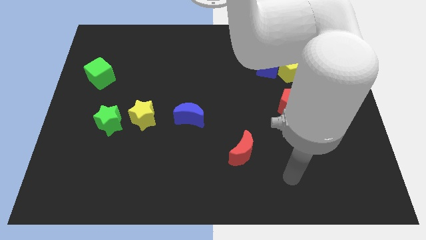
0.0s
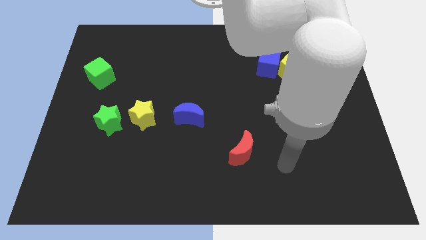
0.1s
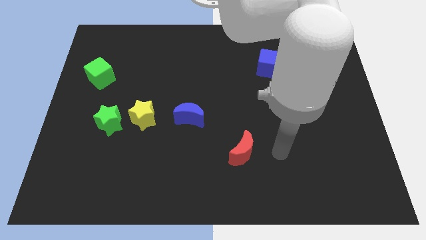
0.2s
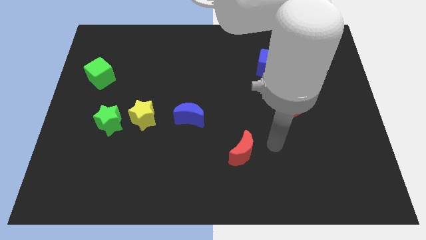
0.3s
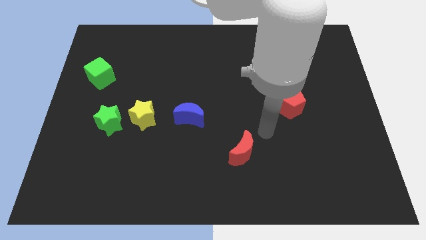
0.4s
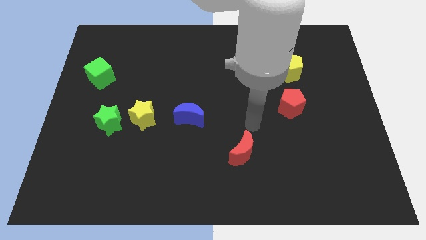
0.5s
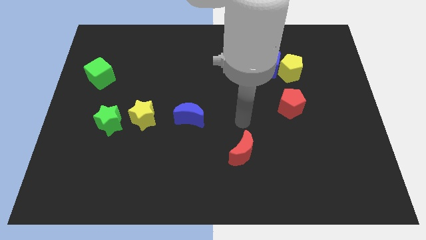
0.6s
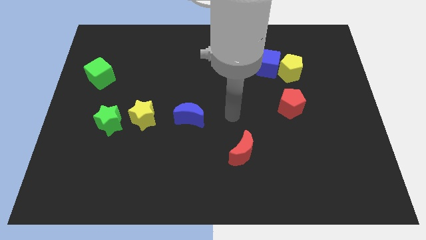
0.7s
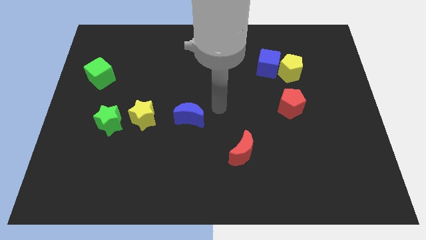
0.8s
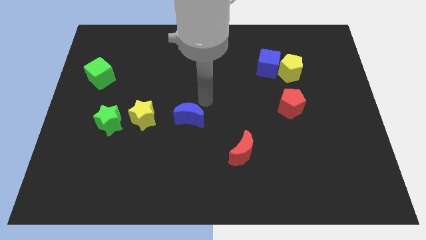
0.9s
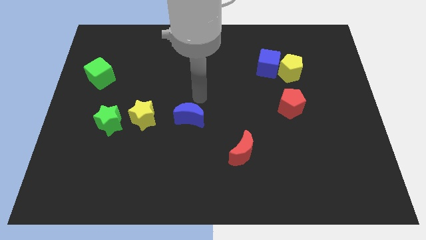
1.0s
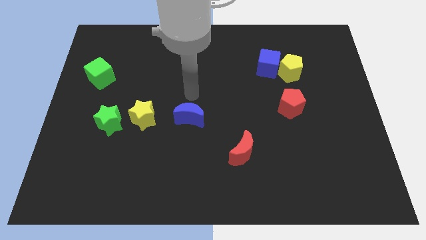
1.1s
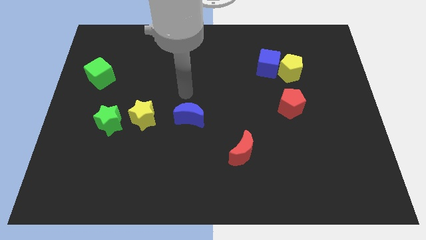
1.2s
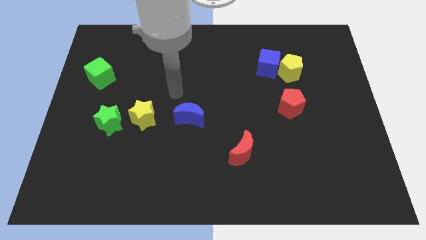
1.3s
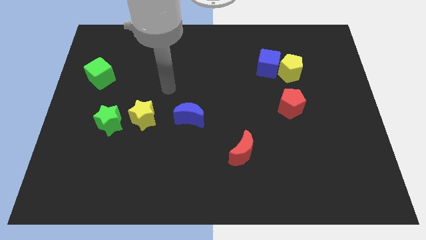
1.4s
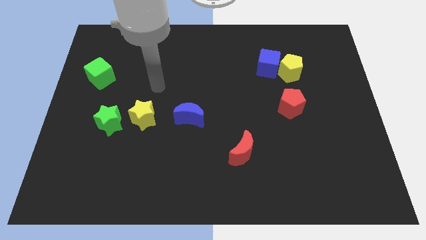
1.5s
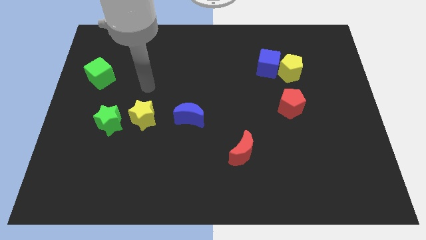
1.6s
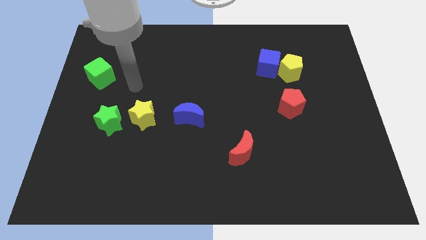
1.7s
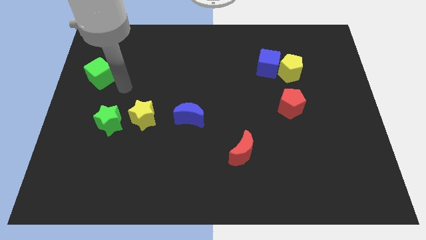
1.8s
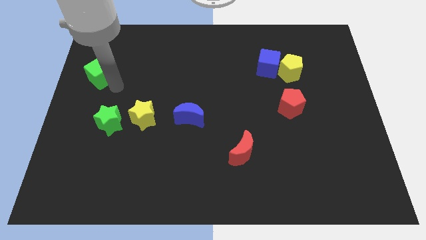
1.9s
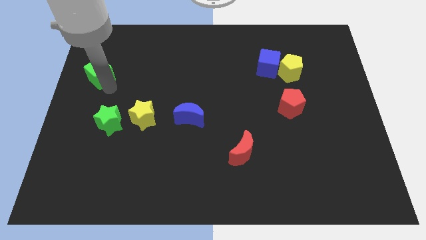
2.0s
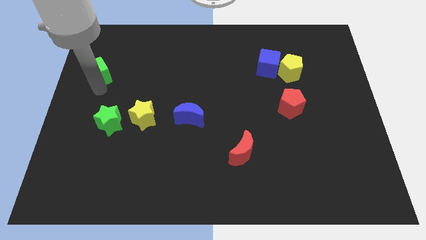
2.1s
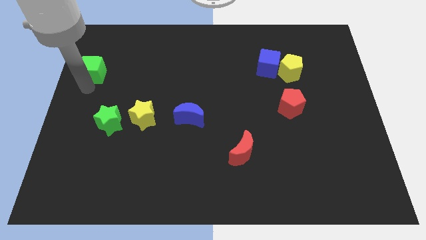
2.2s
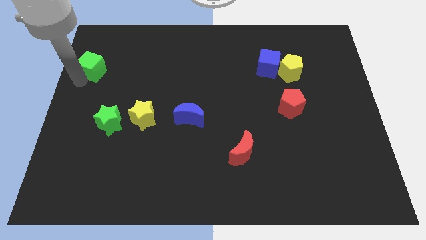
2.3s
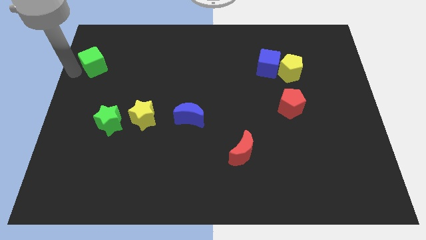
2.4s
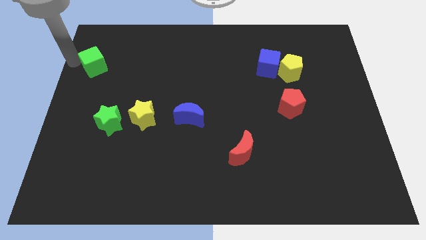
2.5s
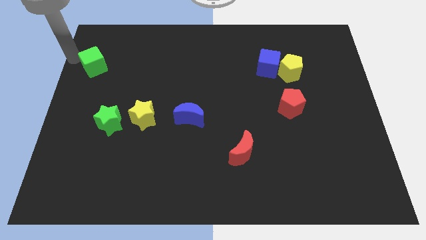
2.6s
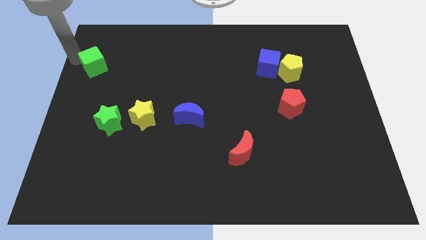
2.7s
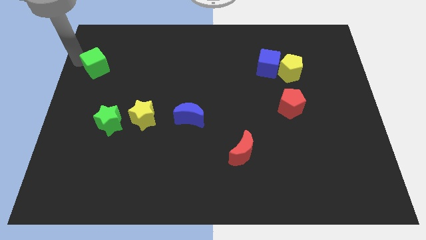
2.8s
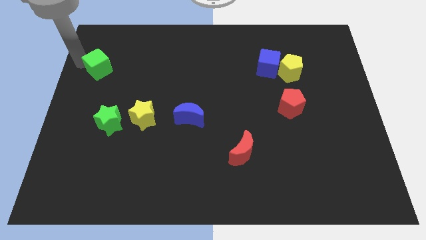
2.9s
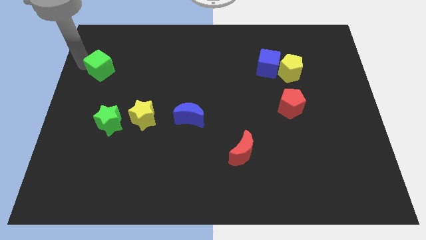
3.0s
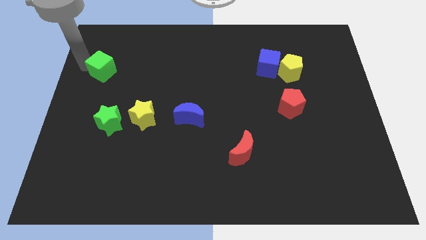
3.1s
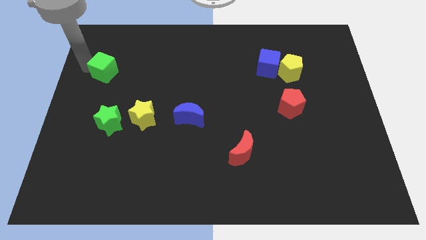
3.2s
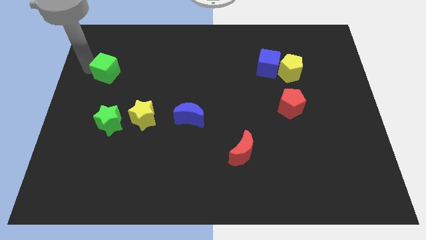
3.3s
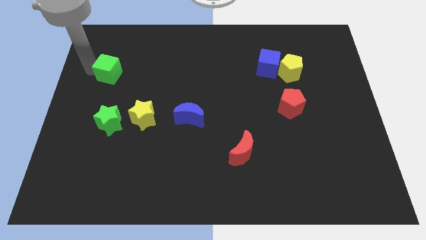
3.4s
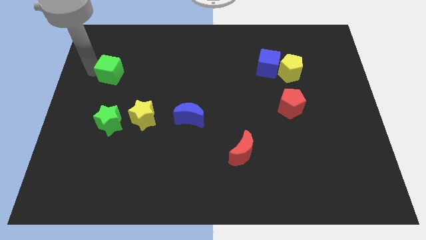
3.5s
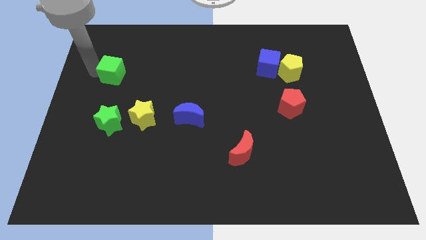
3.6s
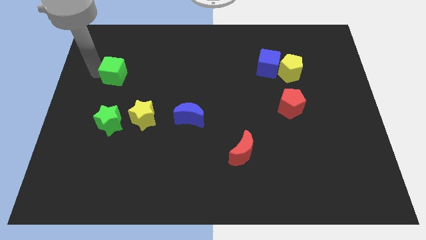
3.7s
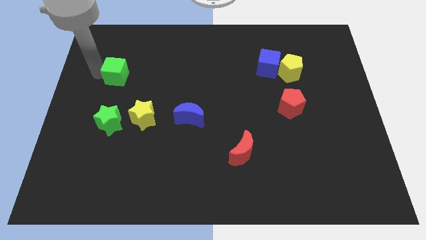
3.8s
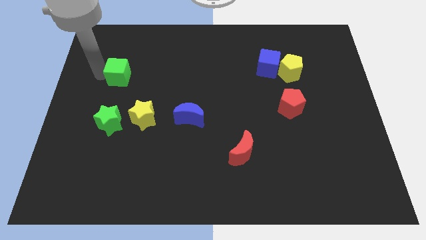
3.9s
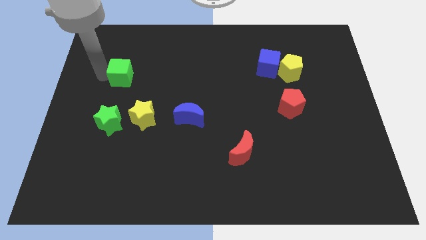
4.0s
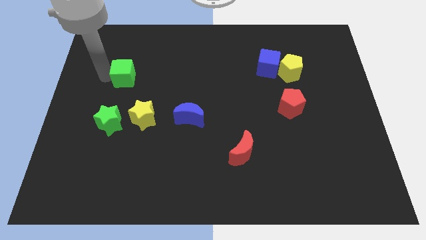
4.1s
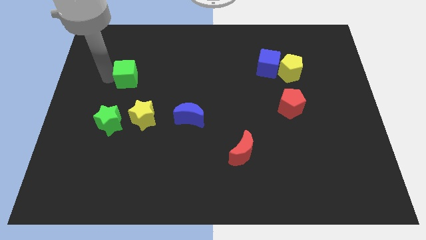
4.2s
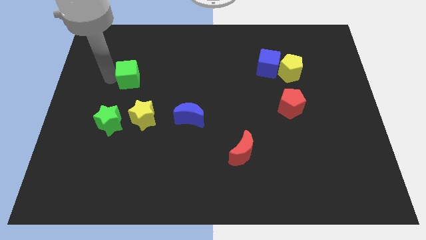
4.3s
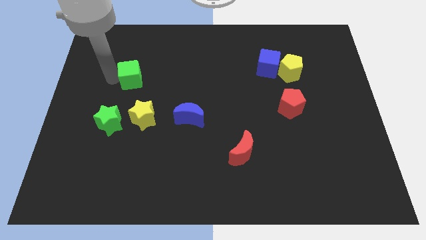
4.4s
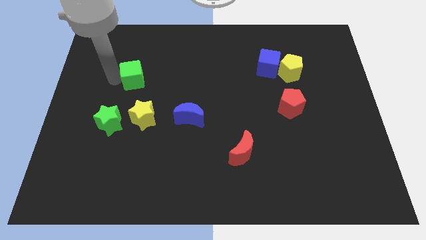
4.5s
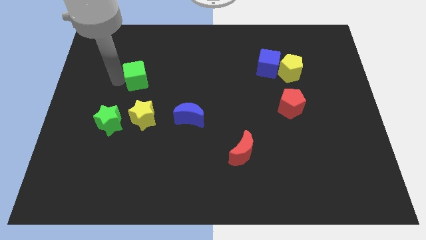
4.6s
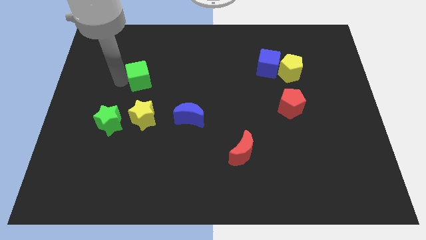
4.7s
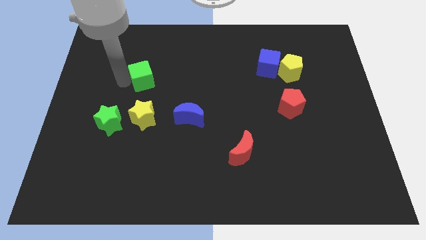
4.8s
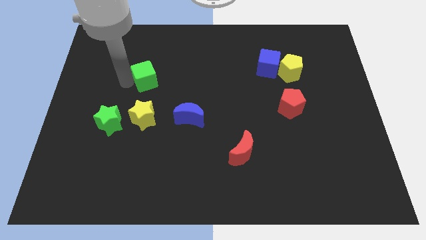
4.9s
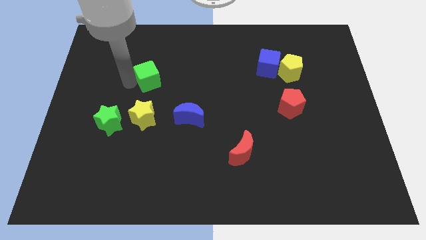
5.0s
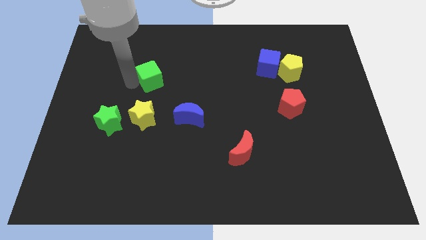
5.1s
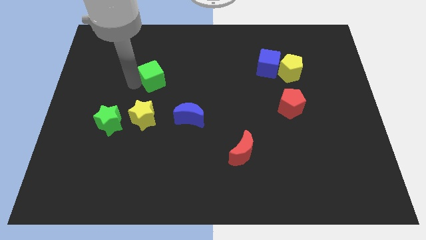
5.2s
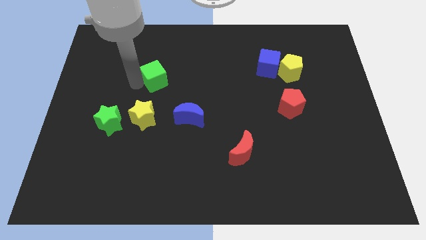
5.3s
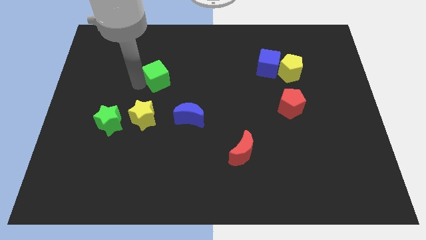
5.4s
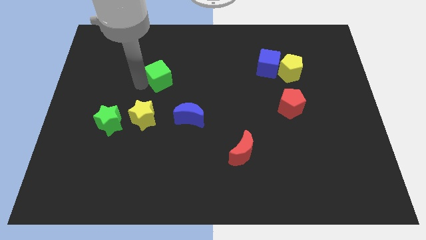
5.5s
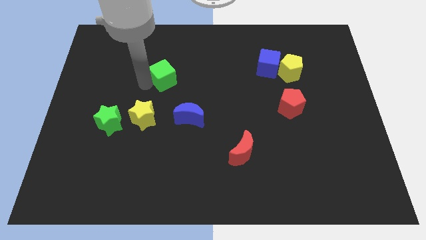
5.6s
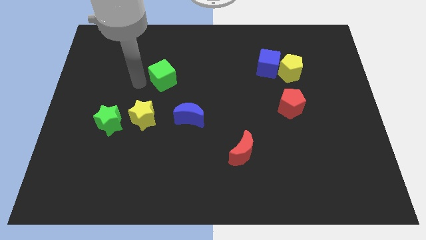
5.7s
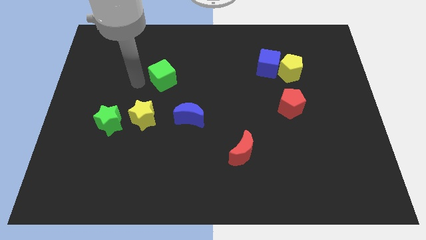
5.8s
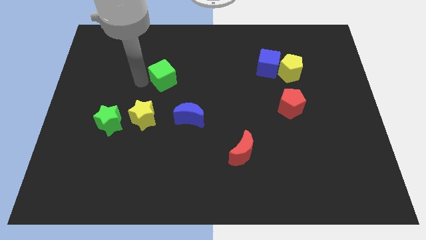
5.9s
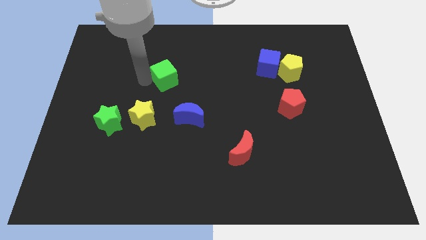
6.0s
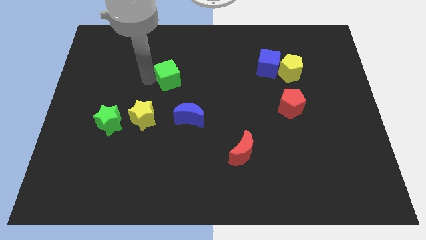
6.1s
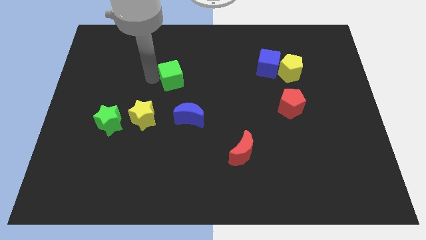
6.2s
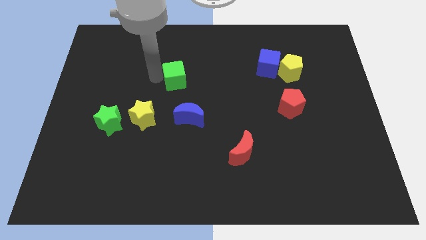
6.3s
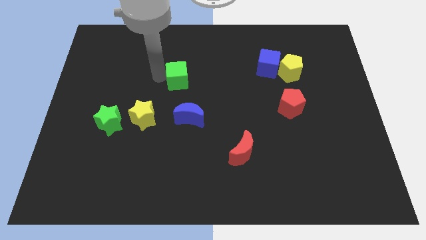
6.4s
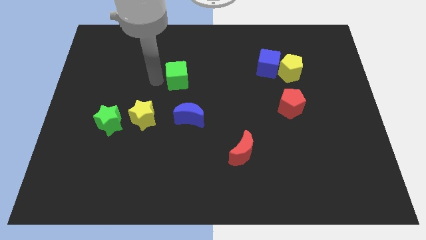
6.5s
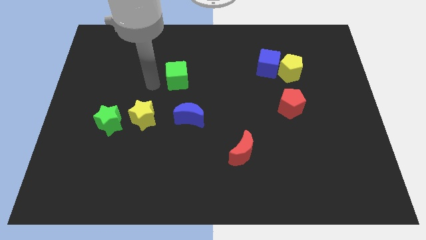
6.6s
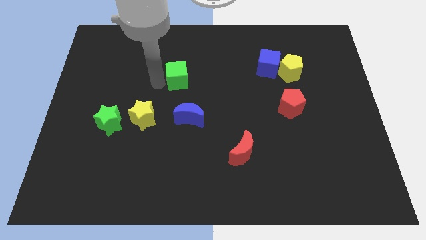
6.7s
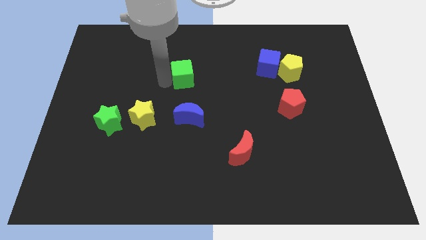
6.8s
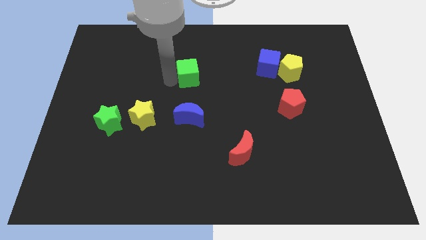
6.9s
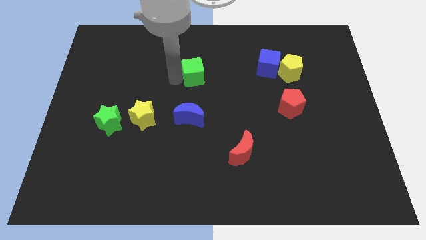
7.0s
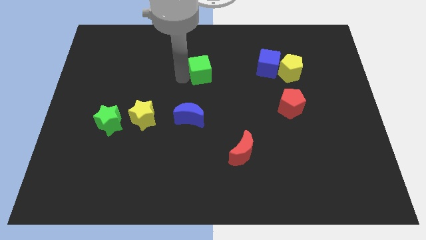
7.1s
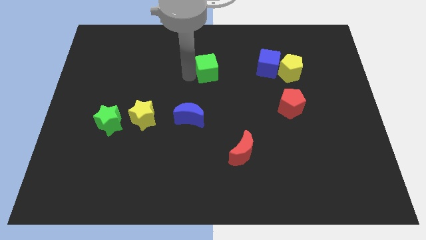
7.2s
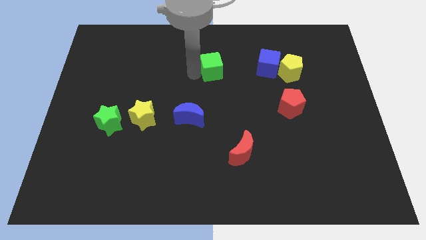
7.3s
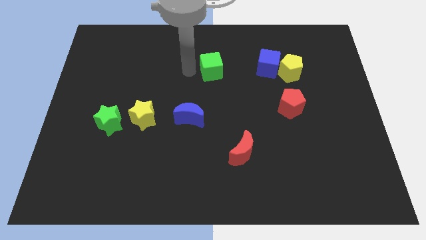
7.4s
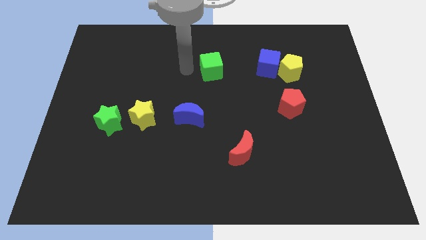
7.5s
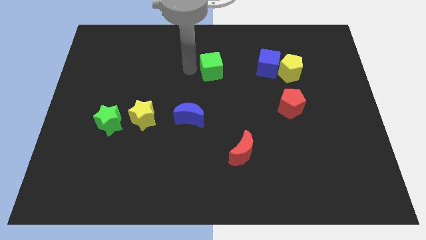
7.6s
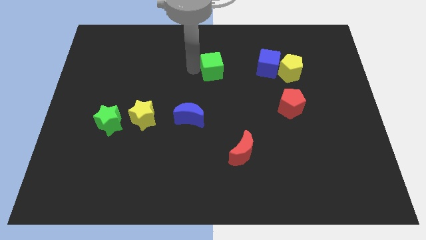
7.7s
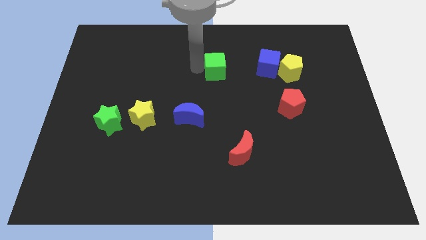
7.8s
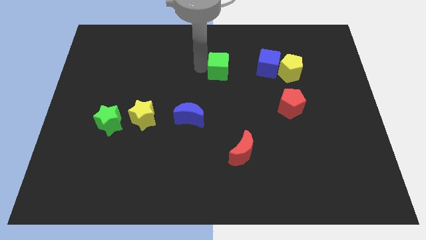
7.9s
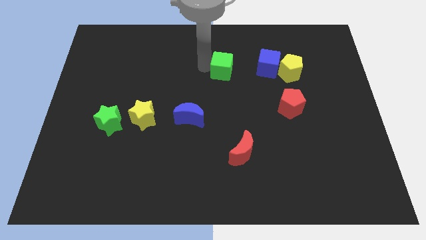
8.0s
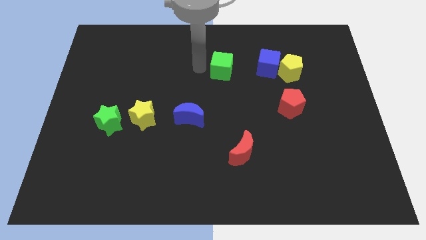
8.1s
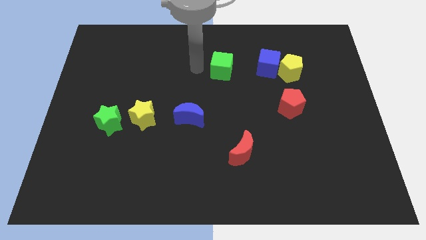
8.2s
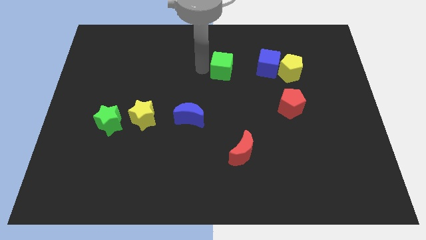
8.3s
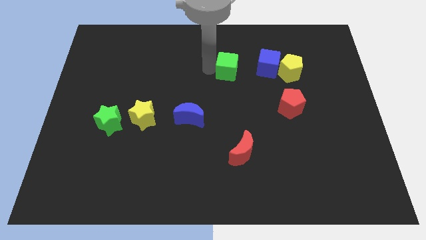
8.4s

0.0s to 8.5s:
put the green cube to the left of the yellow pentagon
